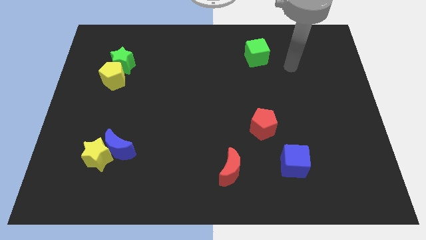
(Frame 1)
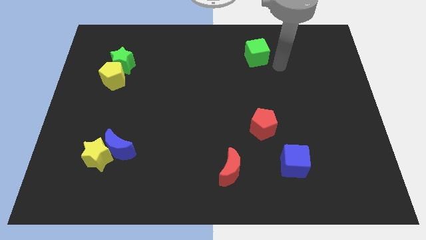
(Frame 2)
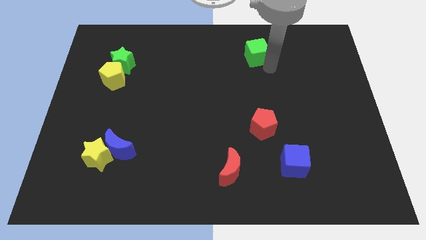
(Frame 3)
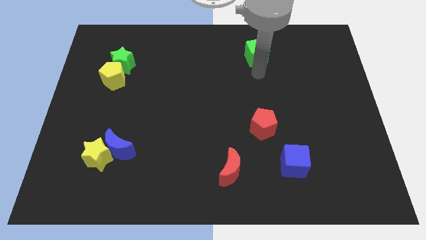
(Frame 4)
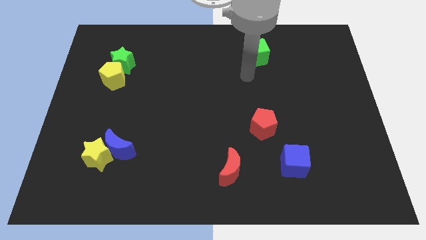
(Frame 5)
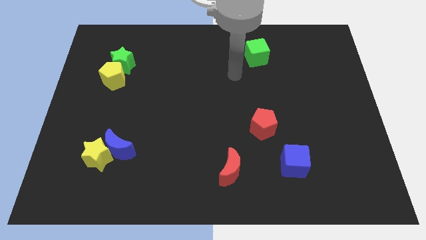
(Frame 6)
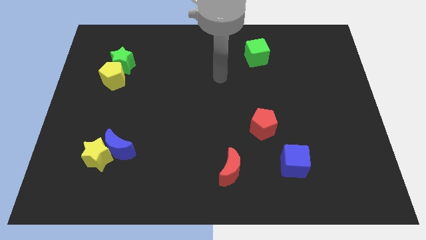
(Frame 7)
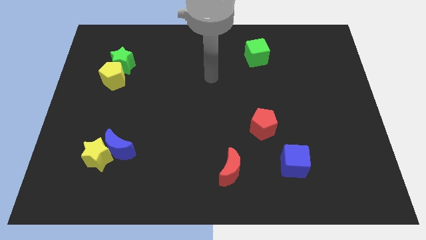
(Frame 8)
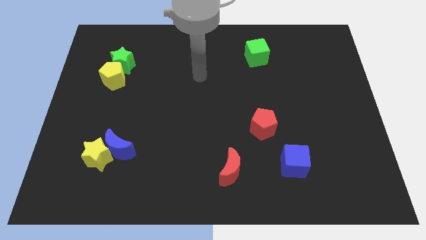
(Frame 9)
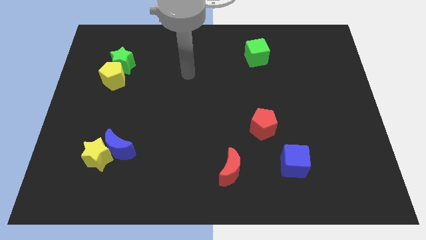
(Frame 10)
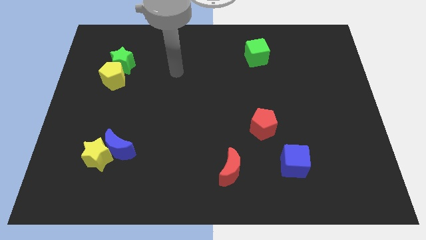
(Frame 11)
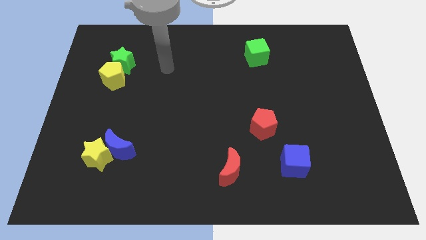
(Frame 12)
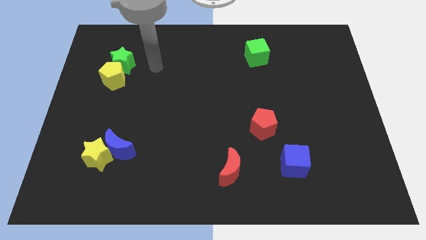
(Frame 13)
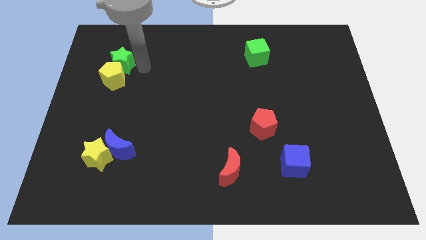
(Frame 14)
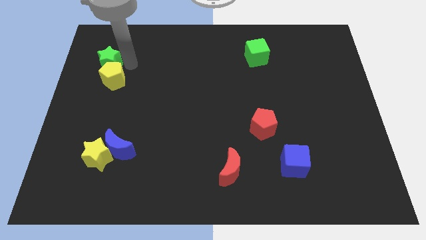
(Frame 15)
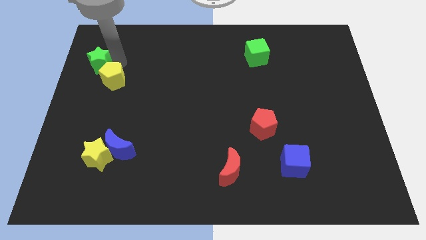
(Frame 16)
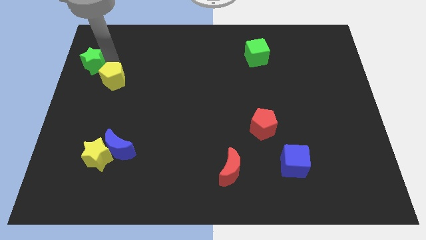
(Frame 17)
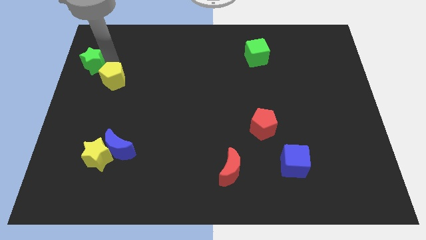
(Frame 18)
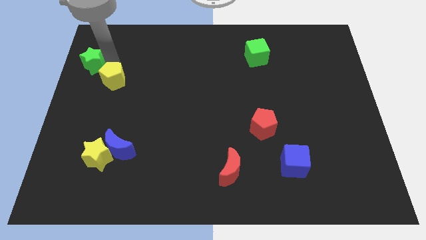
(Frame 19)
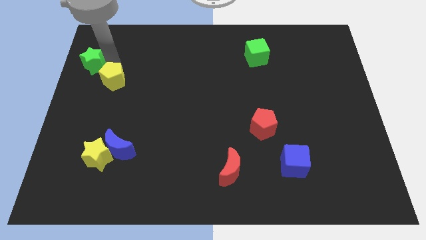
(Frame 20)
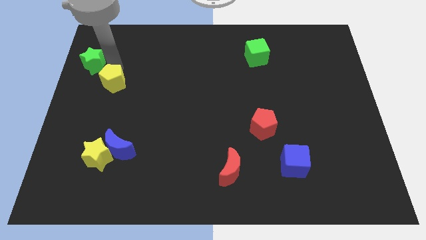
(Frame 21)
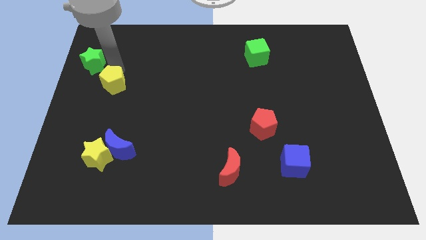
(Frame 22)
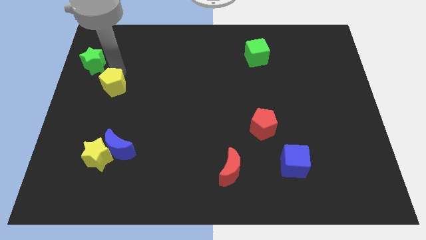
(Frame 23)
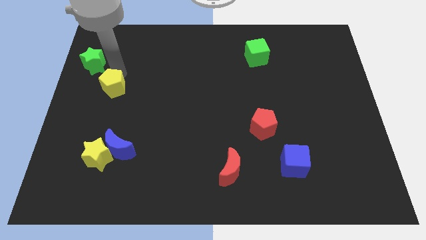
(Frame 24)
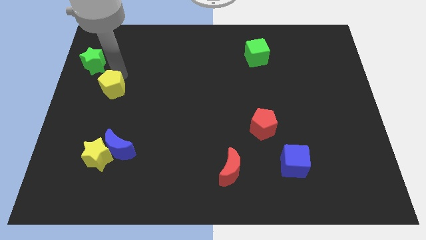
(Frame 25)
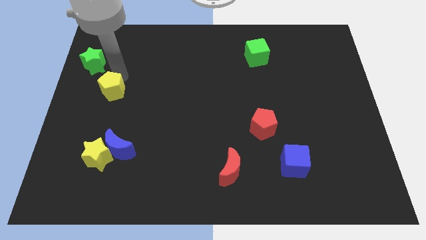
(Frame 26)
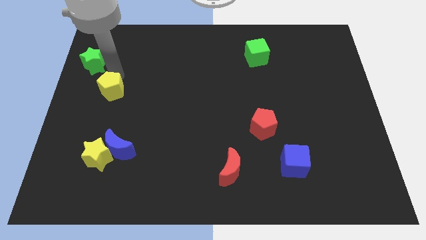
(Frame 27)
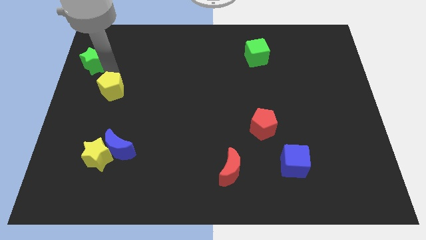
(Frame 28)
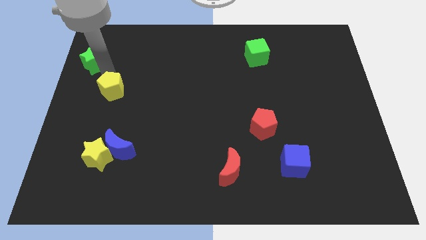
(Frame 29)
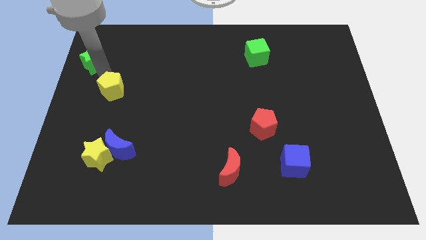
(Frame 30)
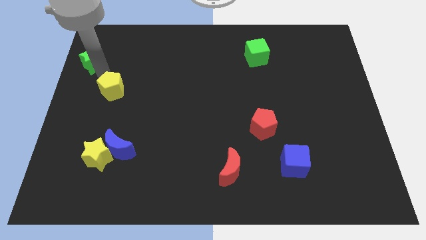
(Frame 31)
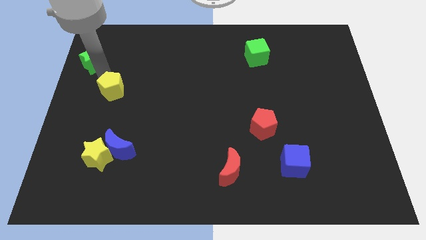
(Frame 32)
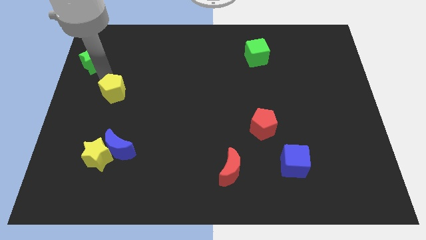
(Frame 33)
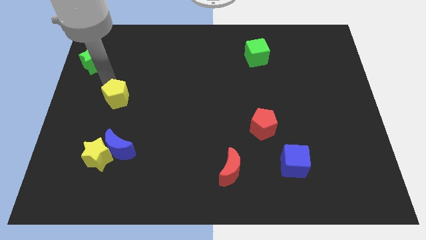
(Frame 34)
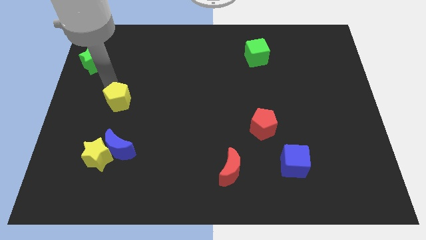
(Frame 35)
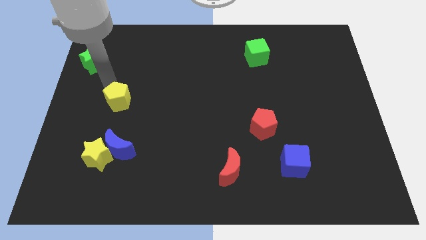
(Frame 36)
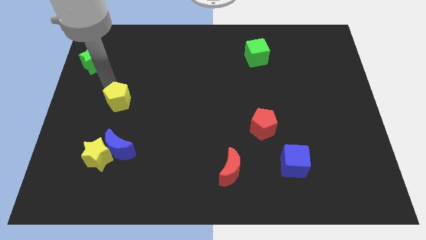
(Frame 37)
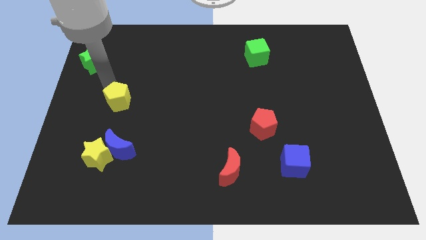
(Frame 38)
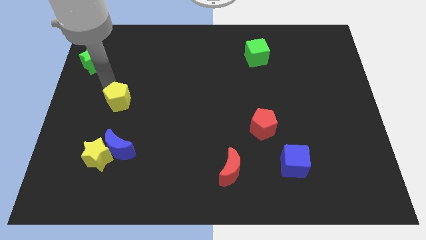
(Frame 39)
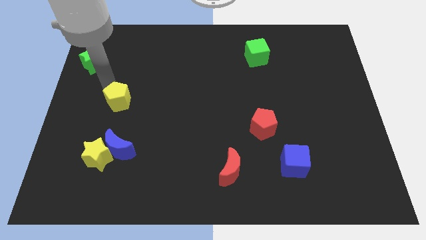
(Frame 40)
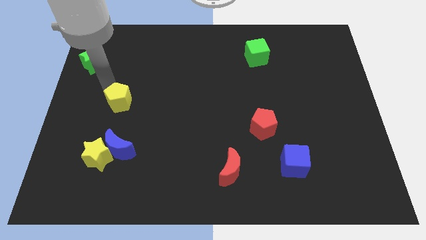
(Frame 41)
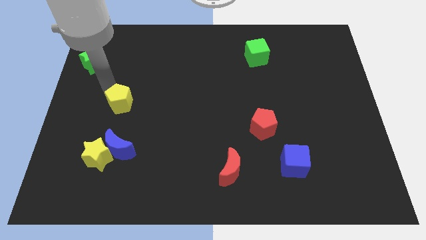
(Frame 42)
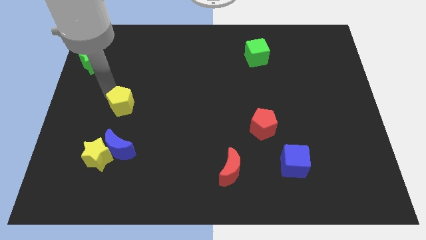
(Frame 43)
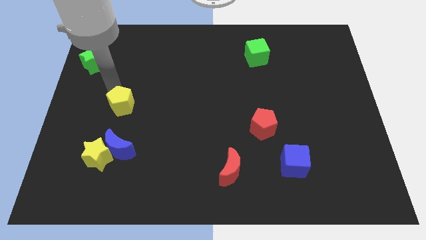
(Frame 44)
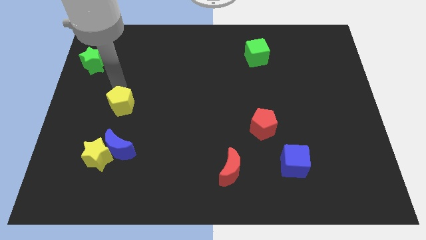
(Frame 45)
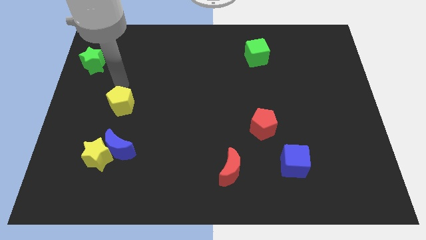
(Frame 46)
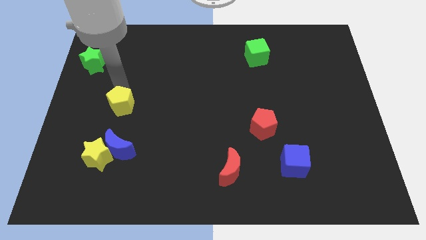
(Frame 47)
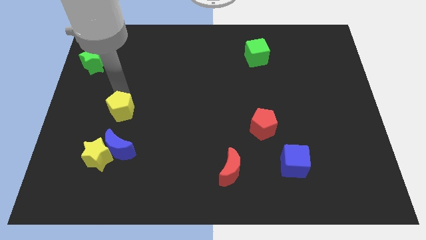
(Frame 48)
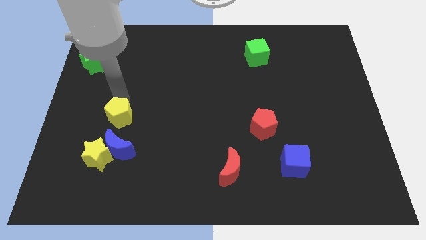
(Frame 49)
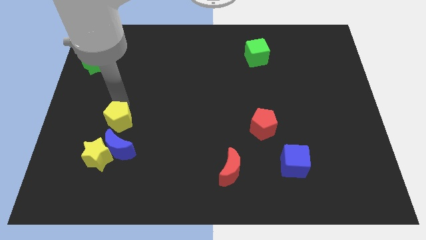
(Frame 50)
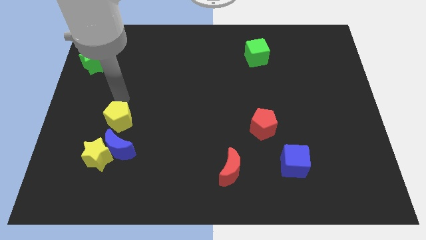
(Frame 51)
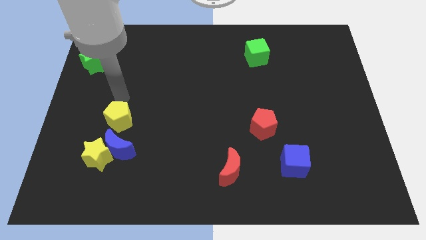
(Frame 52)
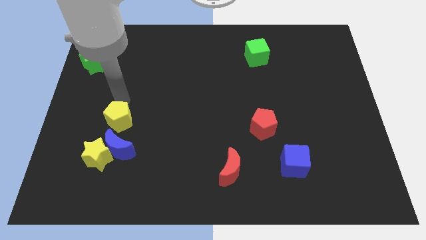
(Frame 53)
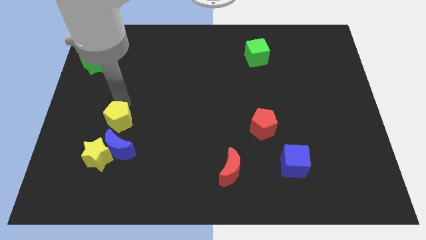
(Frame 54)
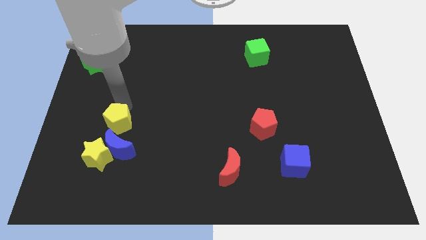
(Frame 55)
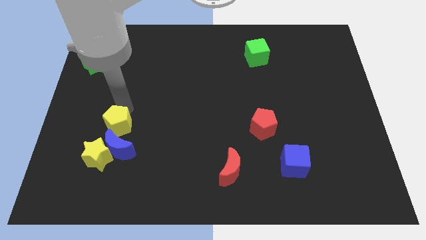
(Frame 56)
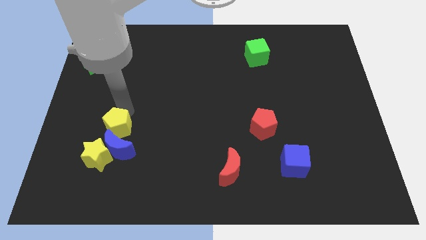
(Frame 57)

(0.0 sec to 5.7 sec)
put the yellow pentagon next to the blue moon

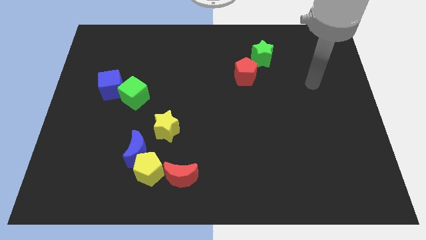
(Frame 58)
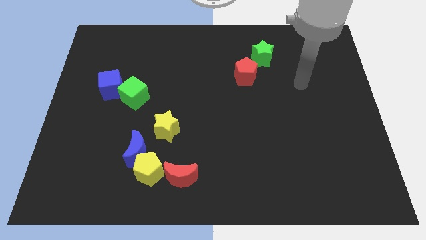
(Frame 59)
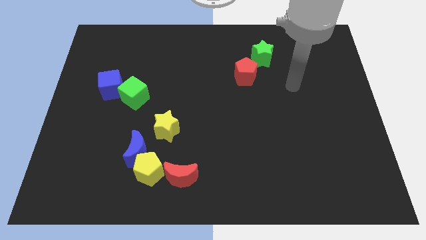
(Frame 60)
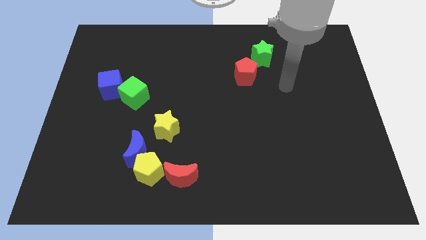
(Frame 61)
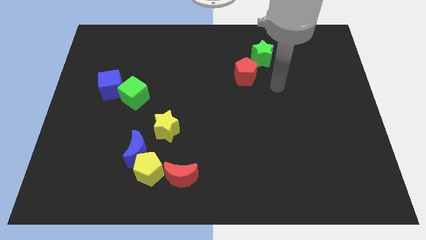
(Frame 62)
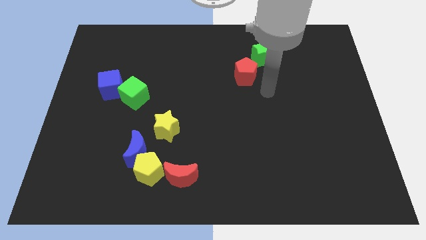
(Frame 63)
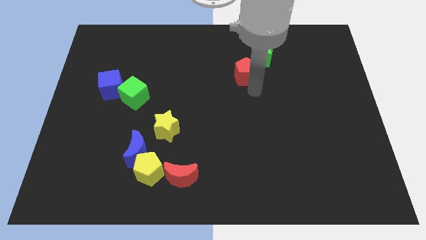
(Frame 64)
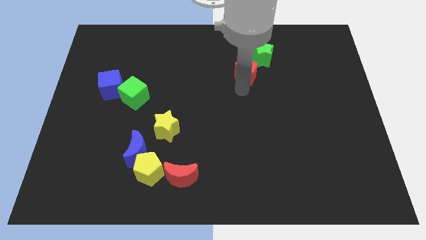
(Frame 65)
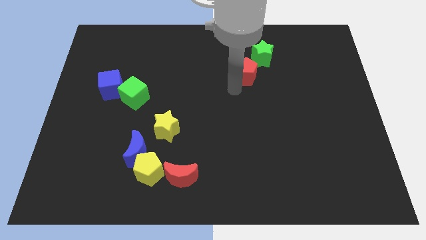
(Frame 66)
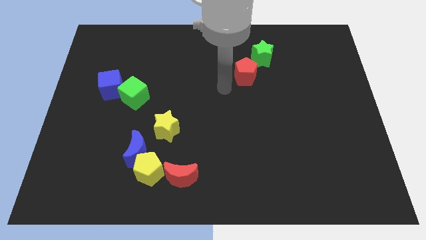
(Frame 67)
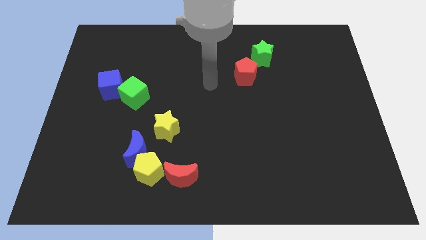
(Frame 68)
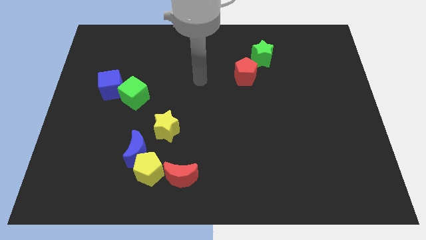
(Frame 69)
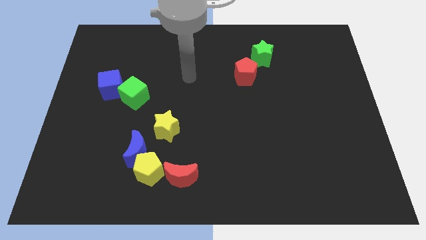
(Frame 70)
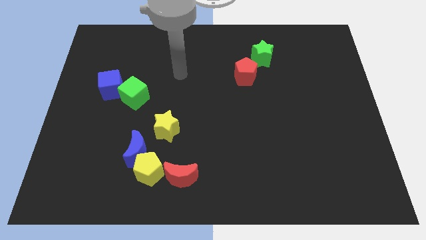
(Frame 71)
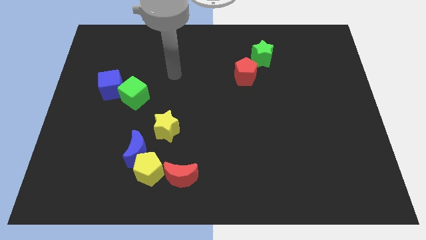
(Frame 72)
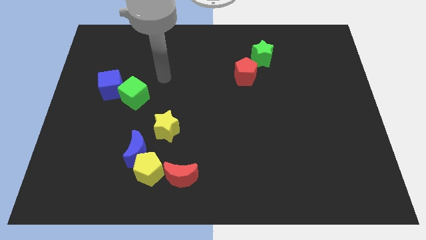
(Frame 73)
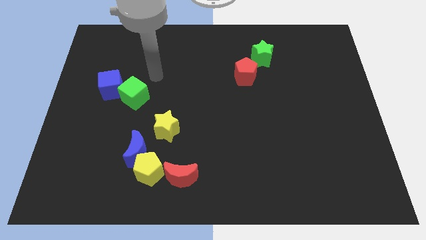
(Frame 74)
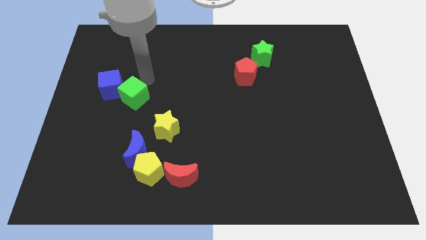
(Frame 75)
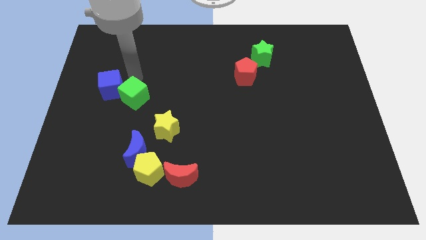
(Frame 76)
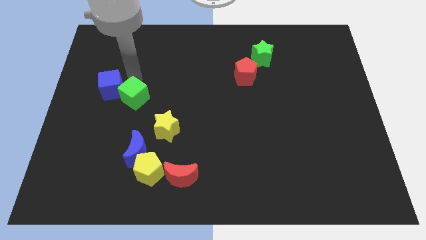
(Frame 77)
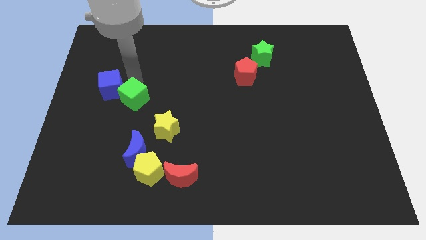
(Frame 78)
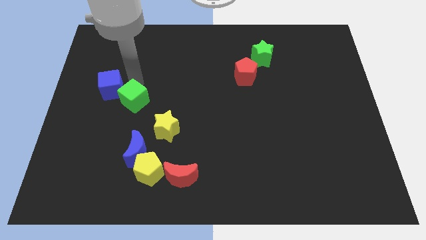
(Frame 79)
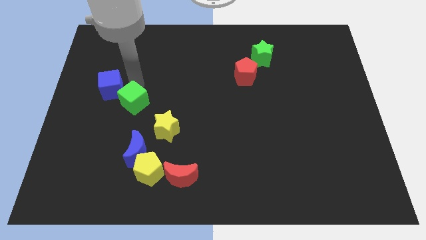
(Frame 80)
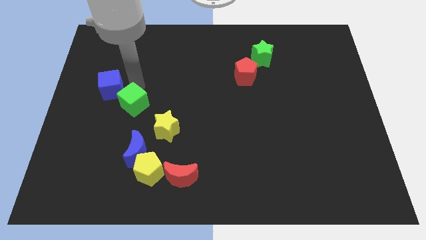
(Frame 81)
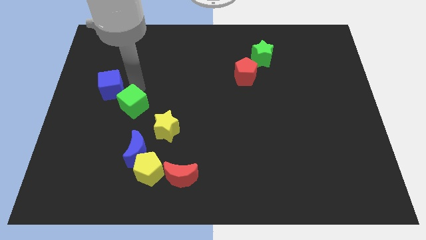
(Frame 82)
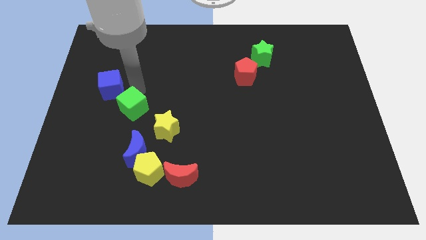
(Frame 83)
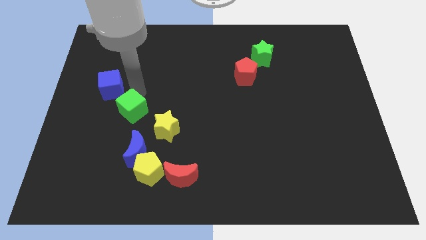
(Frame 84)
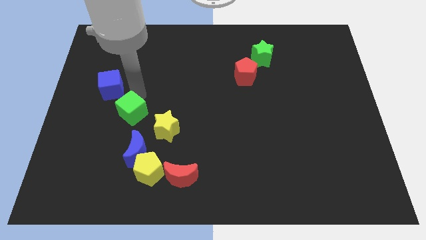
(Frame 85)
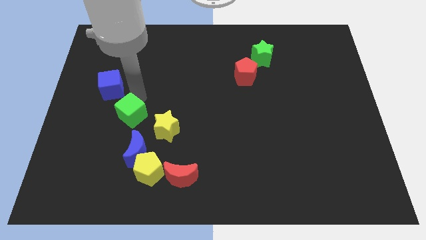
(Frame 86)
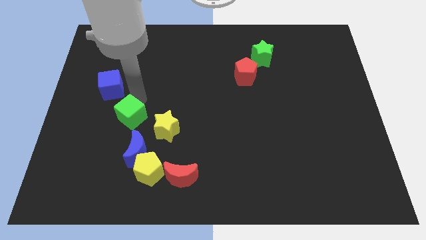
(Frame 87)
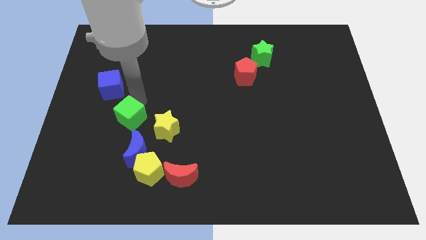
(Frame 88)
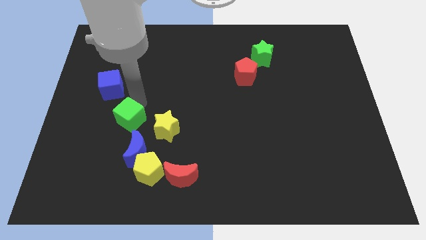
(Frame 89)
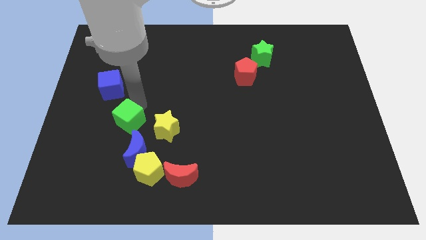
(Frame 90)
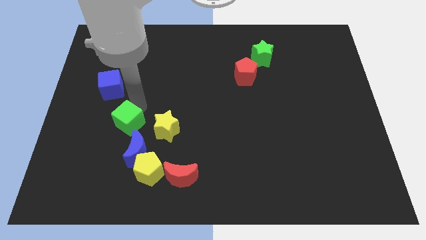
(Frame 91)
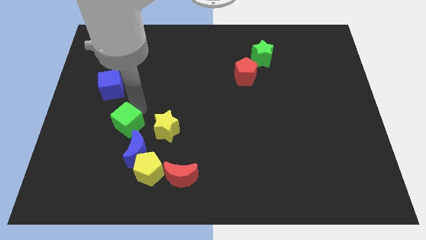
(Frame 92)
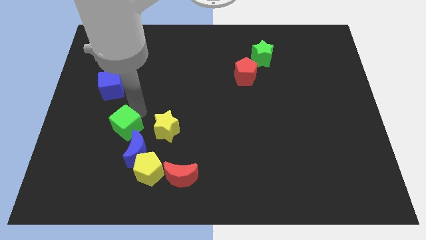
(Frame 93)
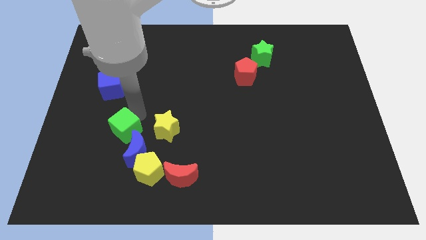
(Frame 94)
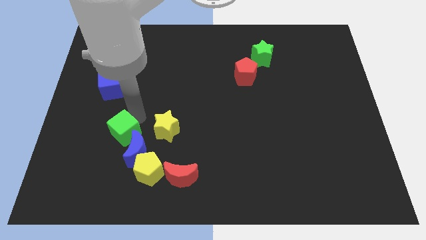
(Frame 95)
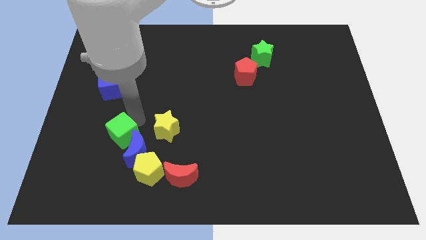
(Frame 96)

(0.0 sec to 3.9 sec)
push the green cube towards the blue moon
